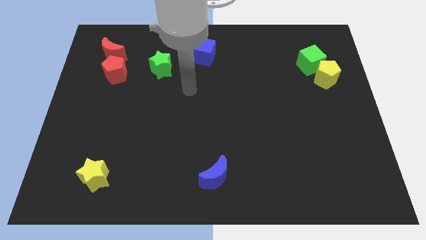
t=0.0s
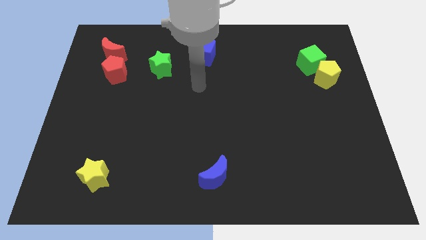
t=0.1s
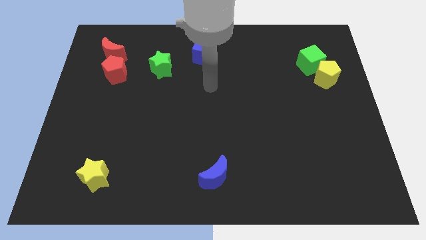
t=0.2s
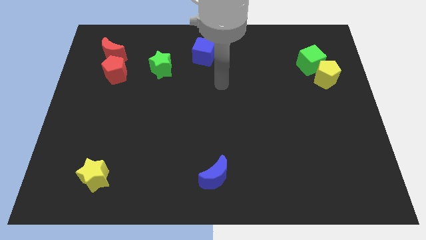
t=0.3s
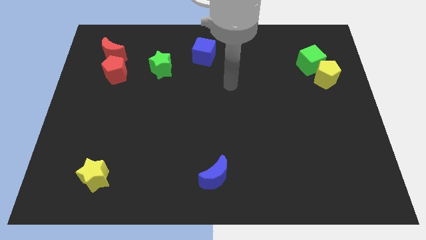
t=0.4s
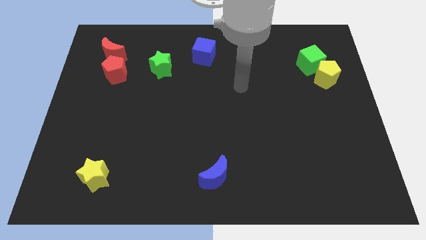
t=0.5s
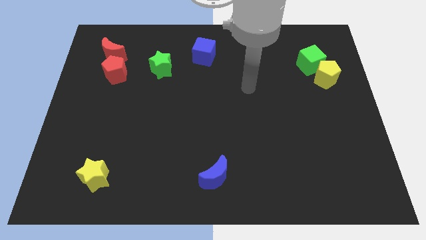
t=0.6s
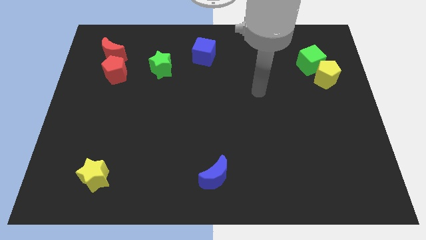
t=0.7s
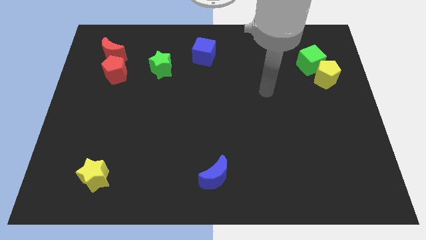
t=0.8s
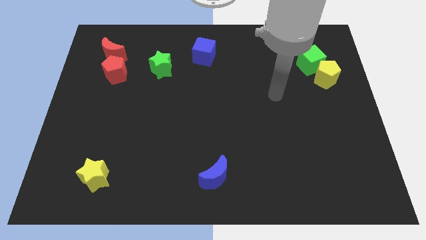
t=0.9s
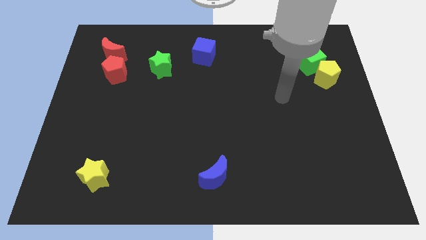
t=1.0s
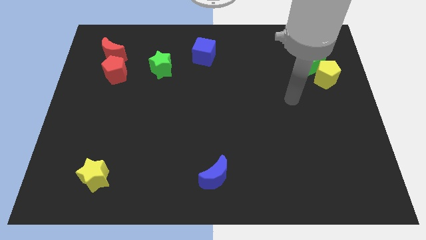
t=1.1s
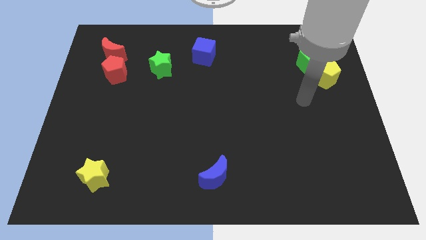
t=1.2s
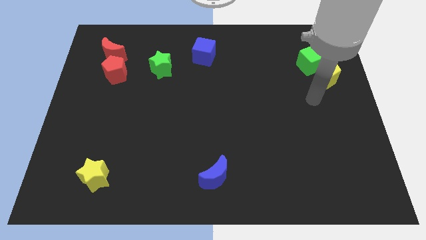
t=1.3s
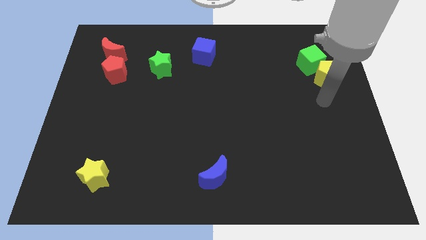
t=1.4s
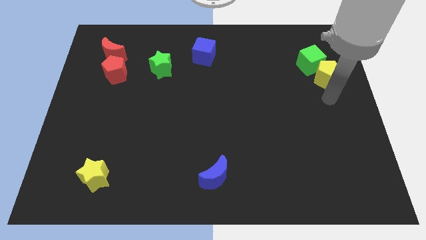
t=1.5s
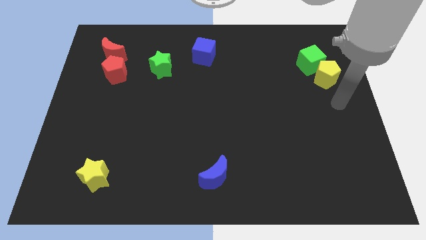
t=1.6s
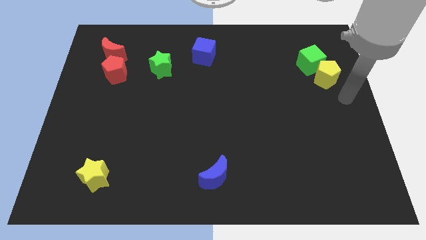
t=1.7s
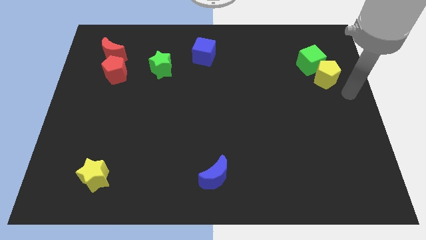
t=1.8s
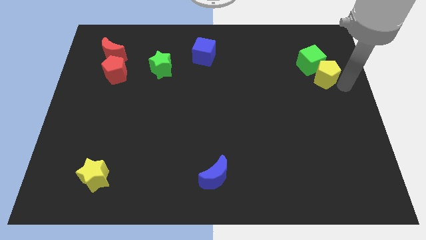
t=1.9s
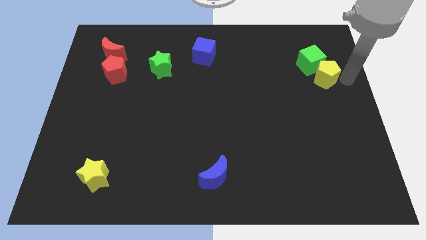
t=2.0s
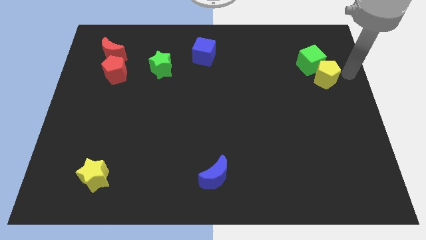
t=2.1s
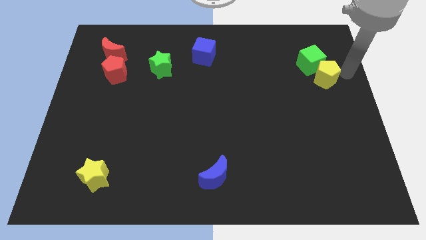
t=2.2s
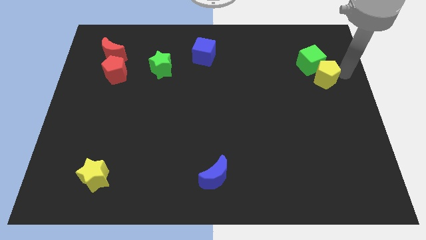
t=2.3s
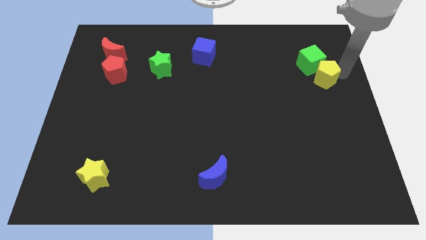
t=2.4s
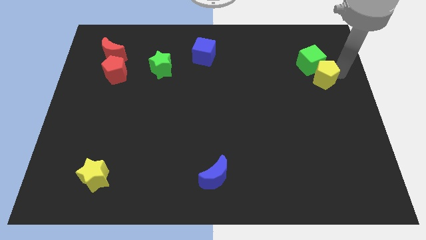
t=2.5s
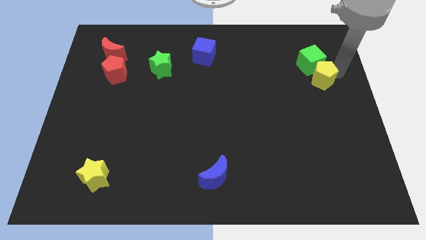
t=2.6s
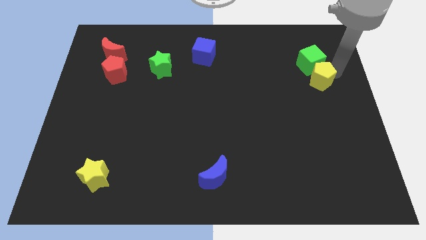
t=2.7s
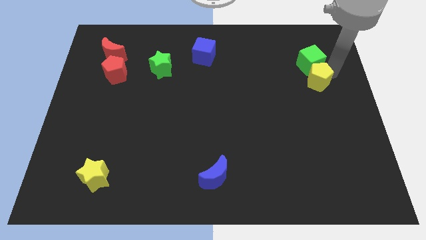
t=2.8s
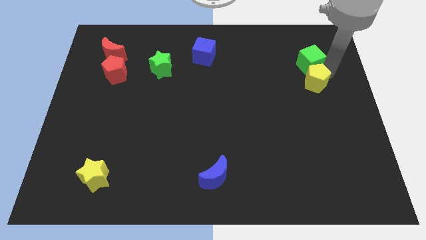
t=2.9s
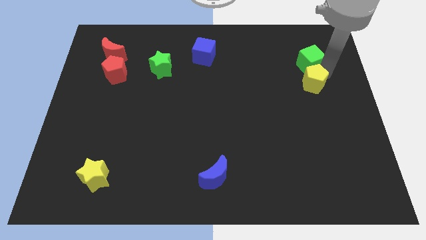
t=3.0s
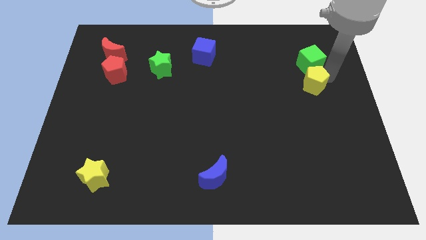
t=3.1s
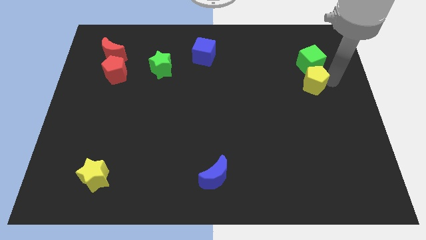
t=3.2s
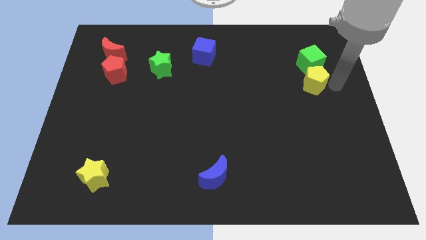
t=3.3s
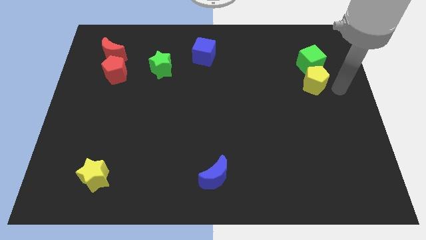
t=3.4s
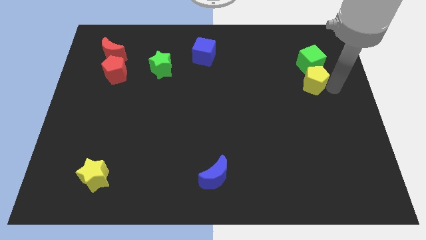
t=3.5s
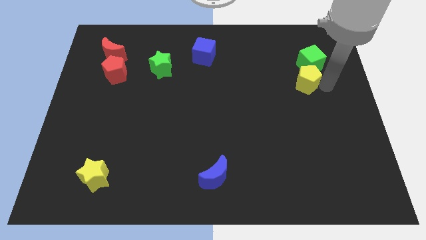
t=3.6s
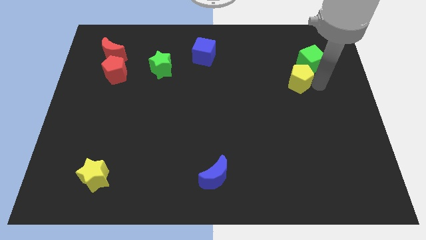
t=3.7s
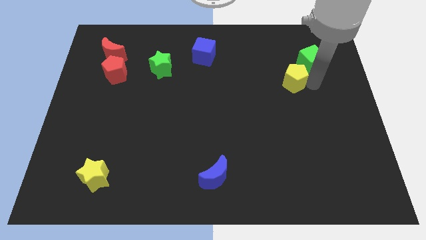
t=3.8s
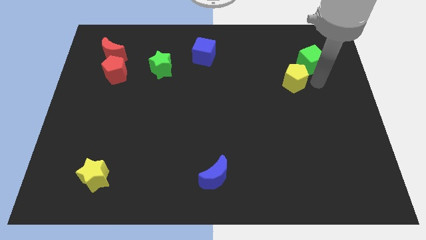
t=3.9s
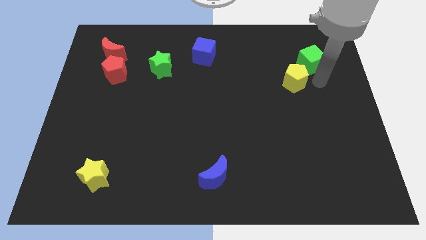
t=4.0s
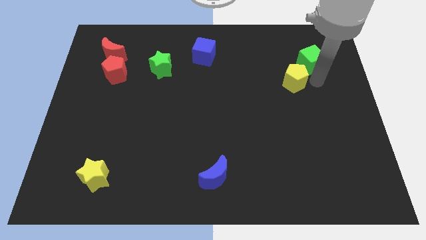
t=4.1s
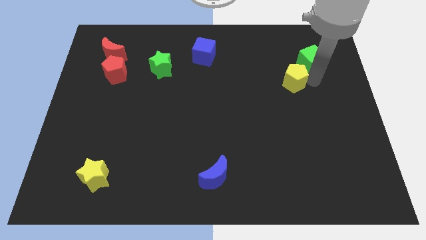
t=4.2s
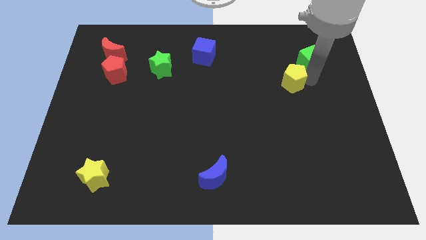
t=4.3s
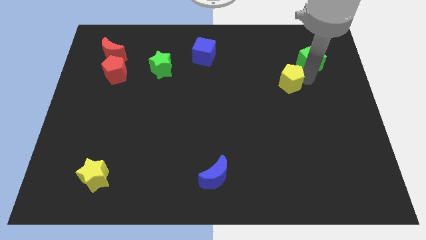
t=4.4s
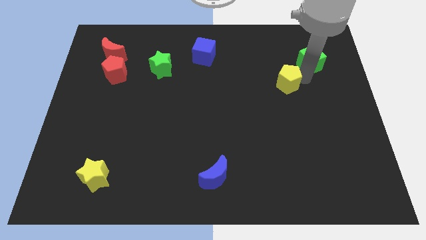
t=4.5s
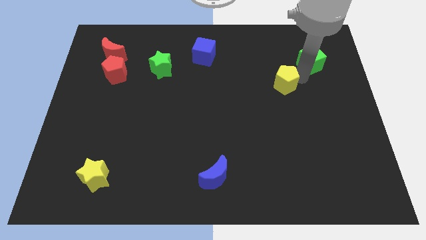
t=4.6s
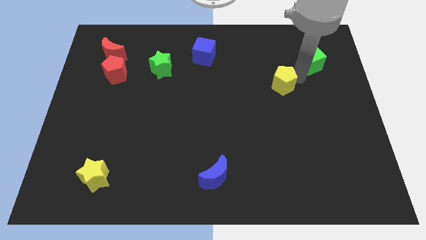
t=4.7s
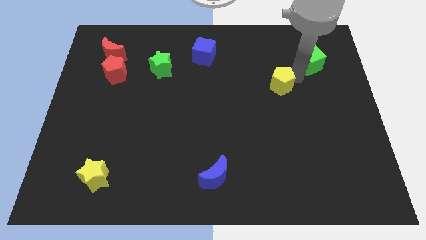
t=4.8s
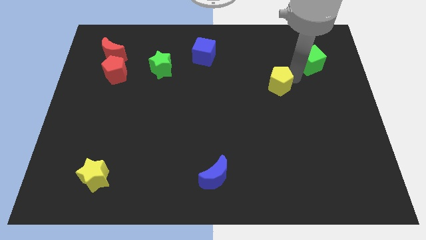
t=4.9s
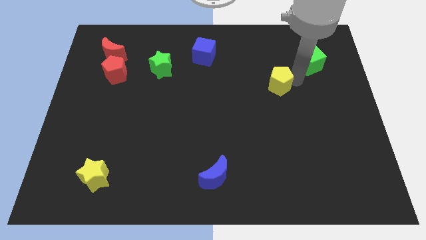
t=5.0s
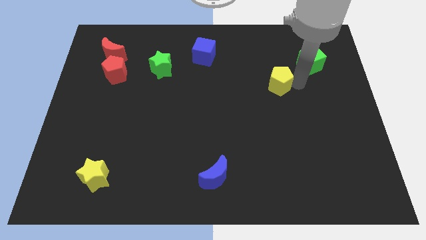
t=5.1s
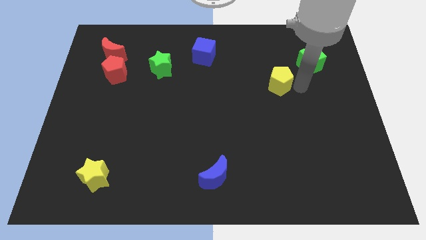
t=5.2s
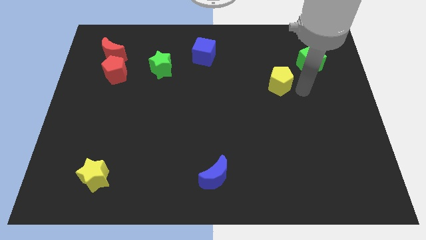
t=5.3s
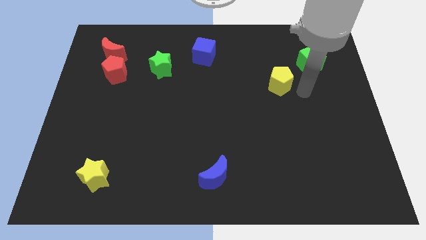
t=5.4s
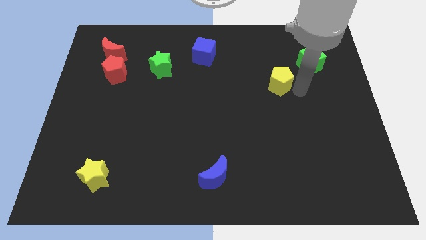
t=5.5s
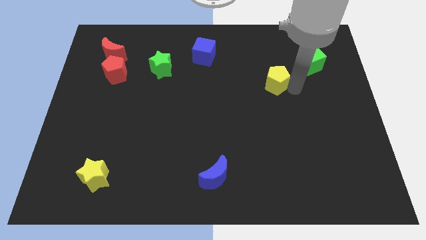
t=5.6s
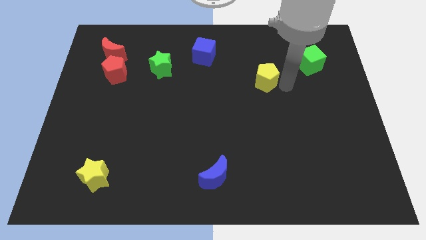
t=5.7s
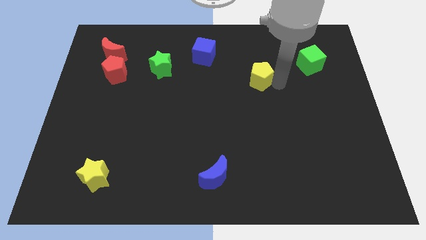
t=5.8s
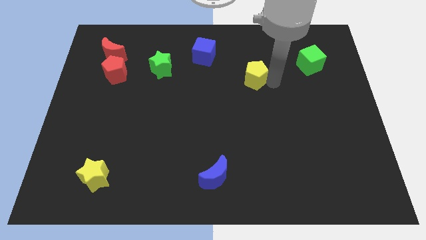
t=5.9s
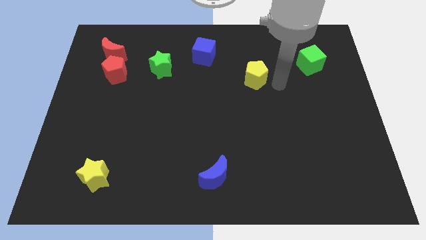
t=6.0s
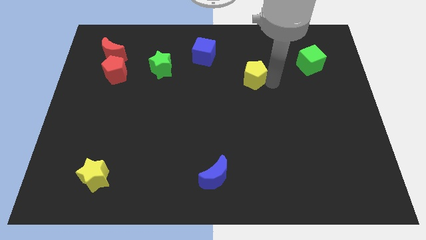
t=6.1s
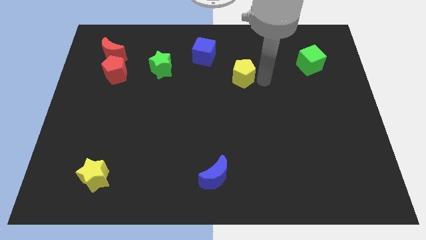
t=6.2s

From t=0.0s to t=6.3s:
slide the yellow pentagon diagonally down and to the right of the blue cube
